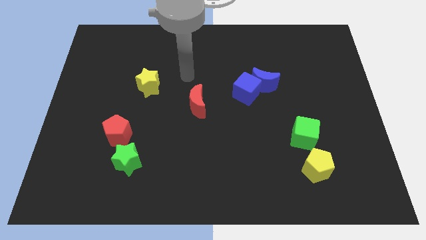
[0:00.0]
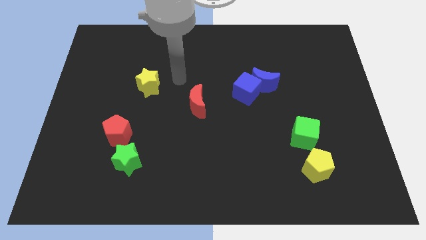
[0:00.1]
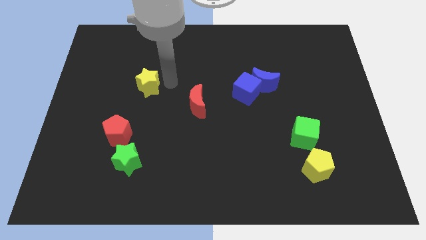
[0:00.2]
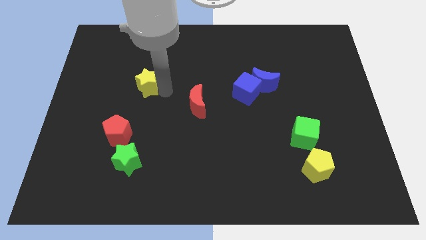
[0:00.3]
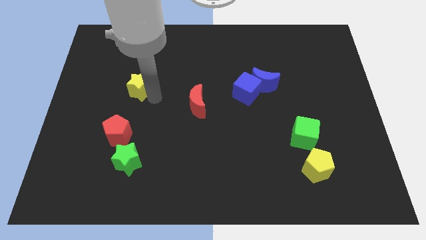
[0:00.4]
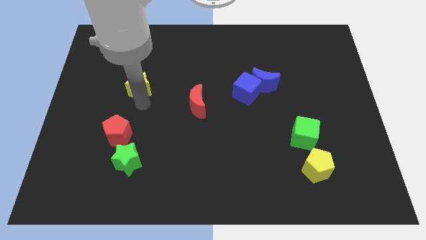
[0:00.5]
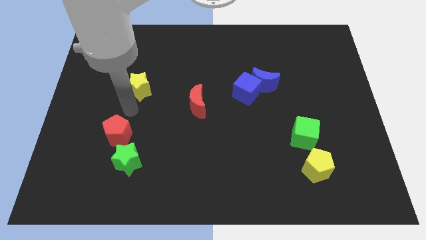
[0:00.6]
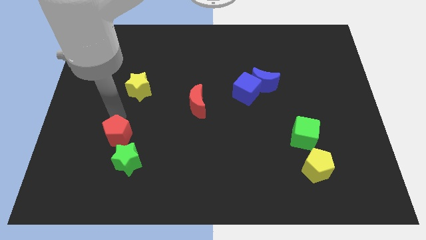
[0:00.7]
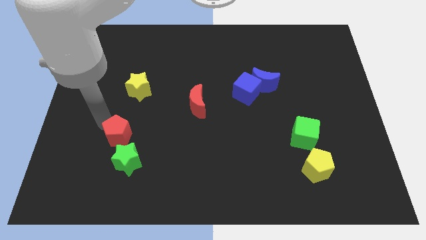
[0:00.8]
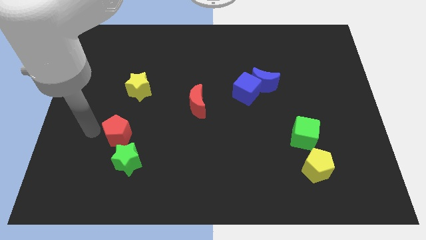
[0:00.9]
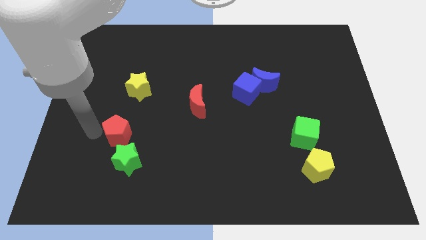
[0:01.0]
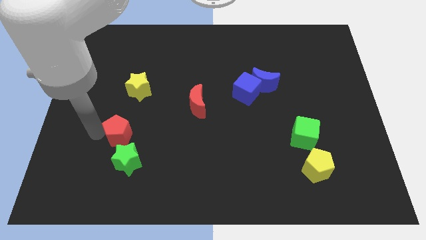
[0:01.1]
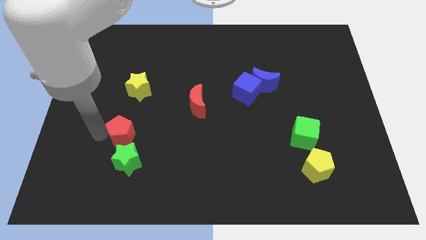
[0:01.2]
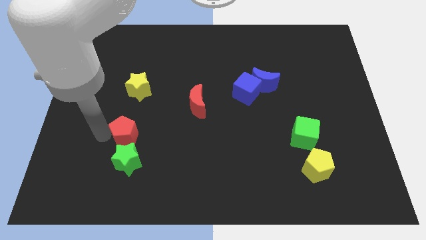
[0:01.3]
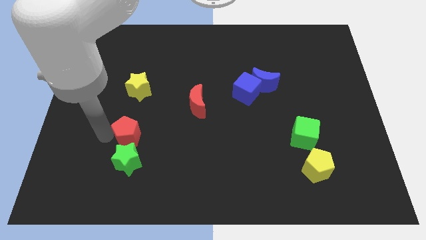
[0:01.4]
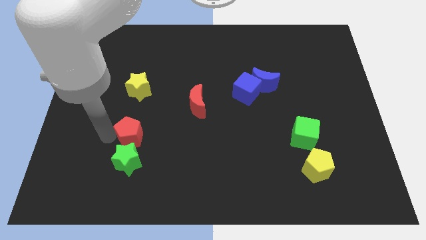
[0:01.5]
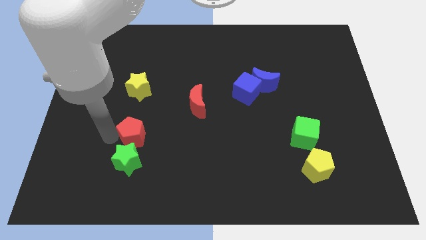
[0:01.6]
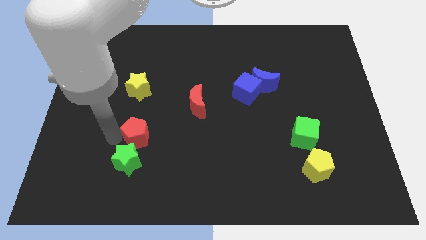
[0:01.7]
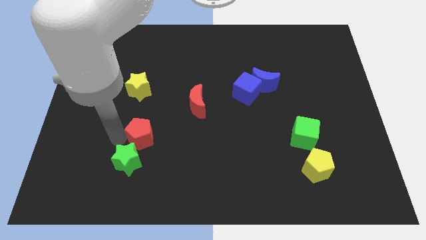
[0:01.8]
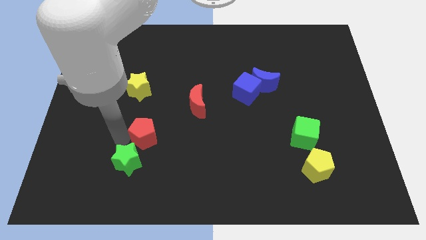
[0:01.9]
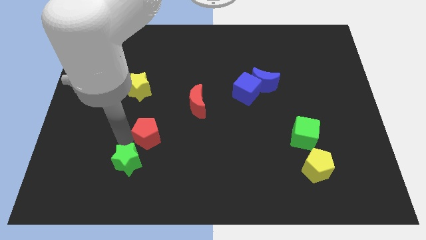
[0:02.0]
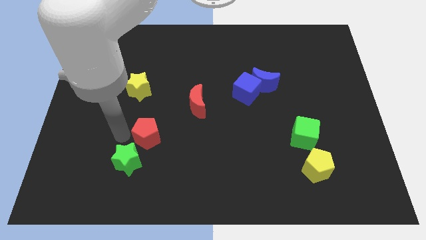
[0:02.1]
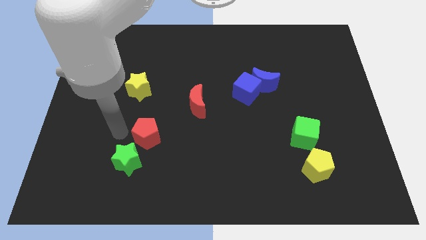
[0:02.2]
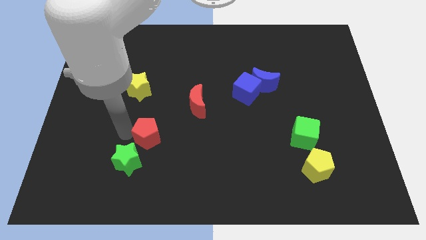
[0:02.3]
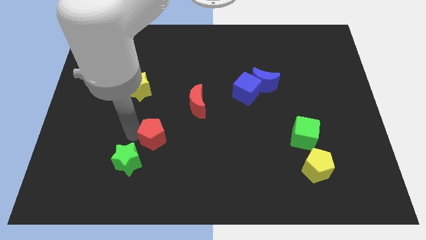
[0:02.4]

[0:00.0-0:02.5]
slide the red pentagon a little to the right

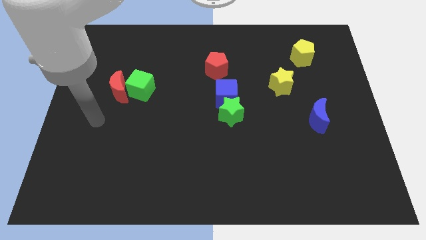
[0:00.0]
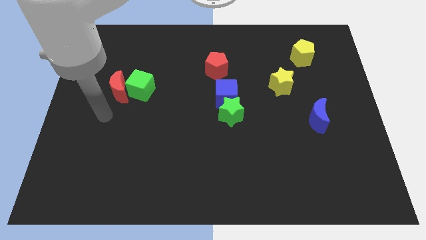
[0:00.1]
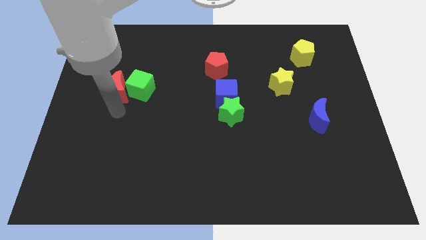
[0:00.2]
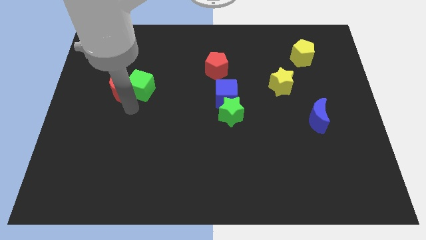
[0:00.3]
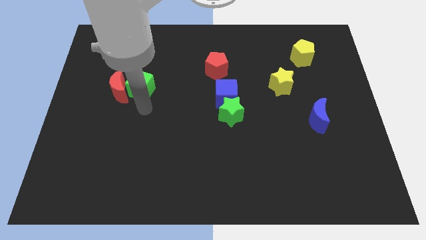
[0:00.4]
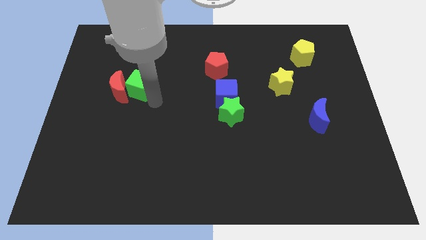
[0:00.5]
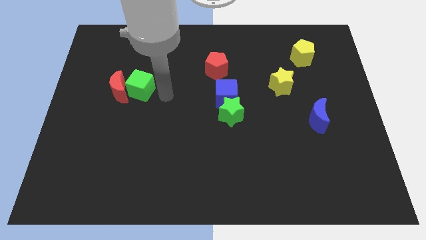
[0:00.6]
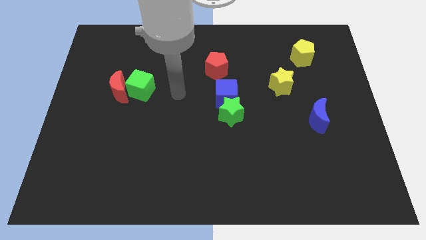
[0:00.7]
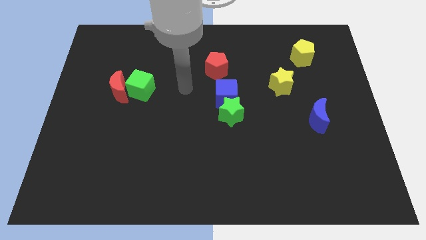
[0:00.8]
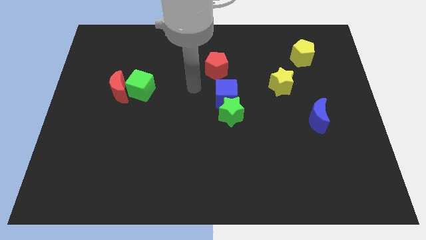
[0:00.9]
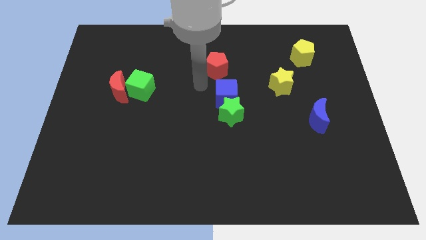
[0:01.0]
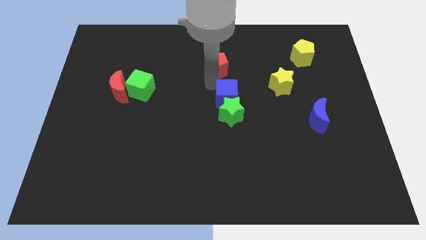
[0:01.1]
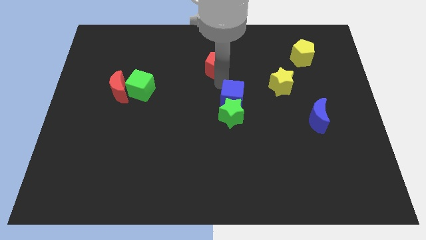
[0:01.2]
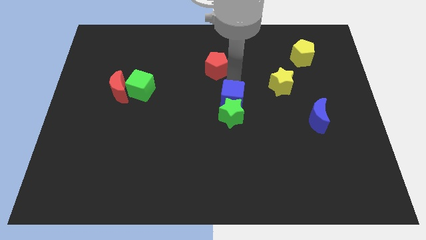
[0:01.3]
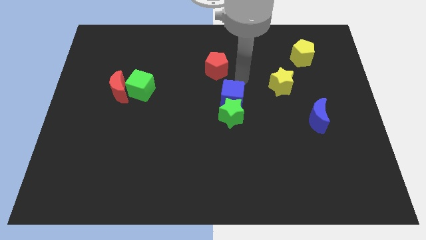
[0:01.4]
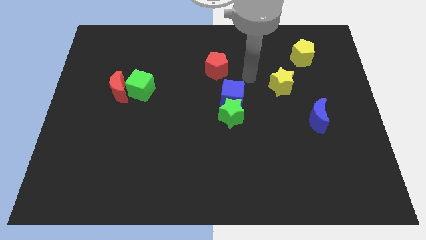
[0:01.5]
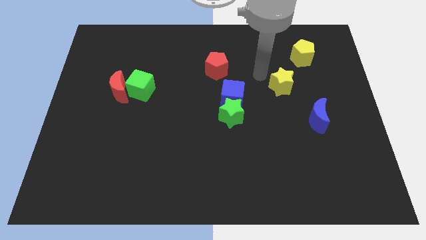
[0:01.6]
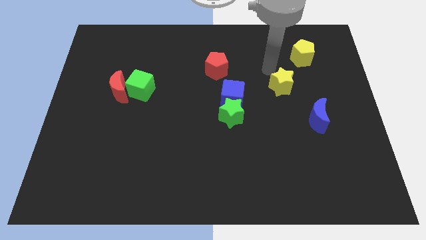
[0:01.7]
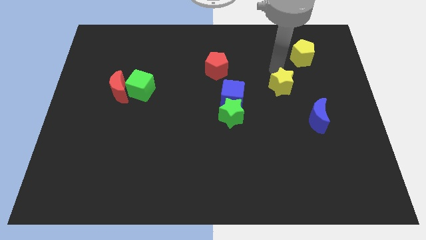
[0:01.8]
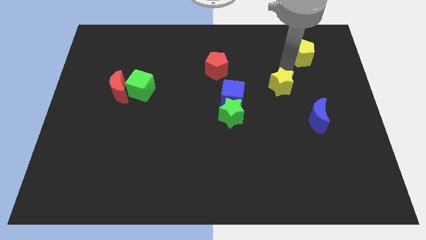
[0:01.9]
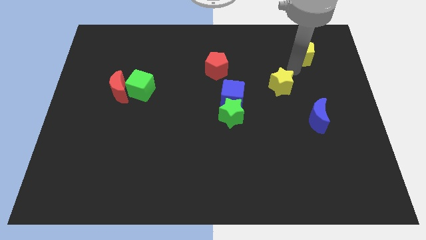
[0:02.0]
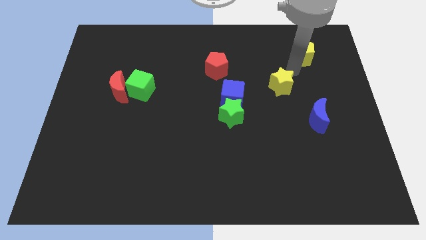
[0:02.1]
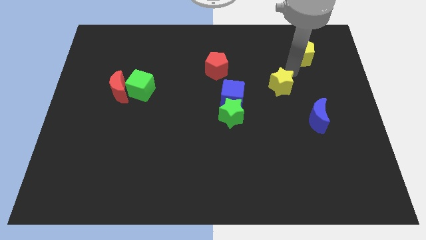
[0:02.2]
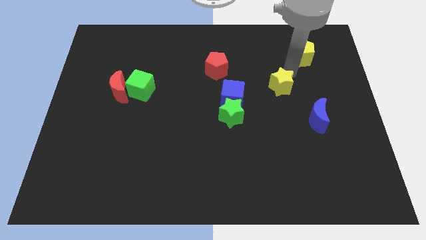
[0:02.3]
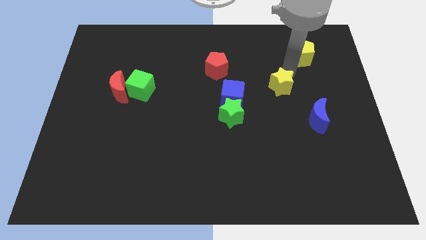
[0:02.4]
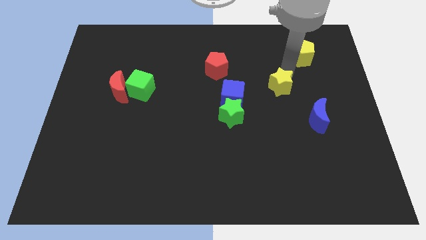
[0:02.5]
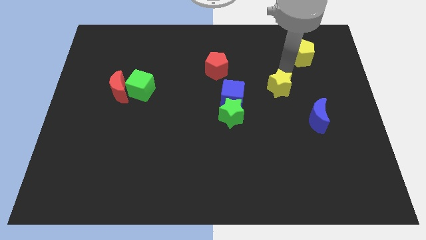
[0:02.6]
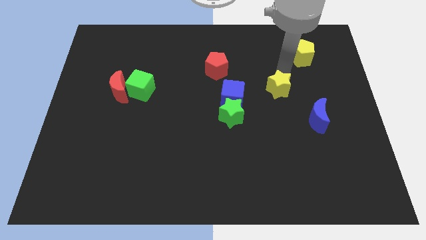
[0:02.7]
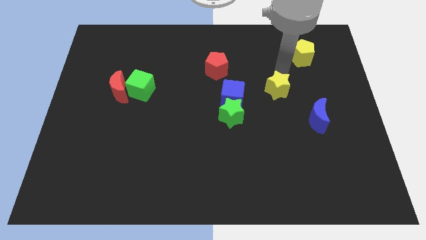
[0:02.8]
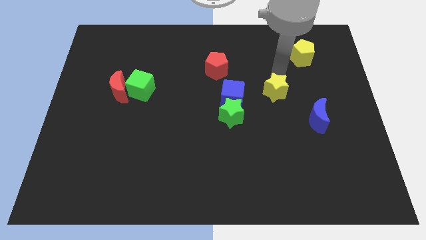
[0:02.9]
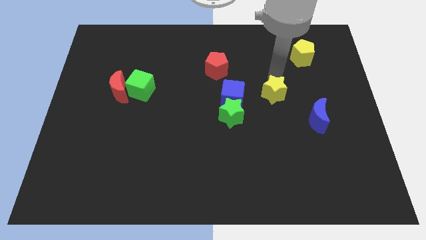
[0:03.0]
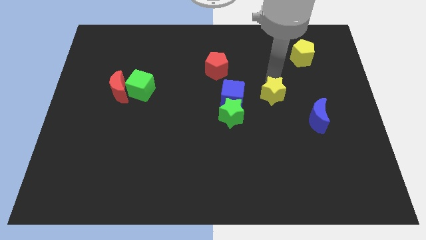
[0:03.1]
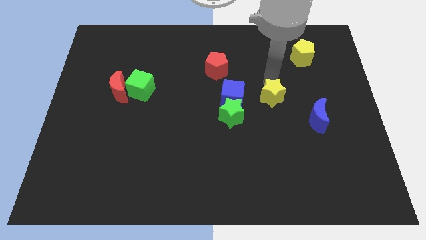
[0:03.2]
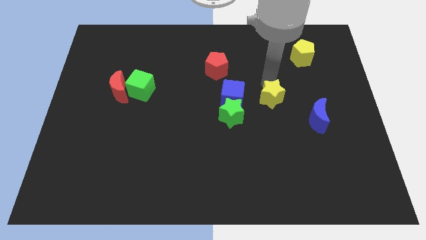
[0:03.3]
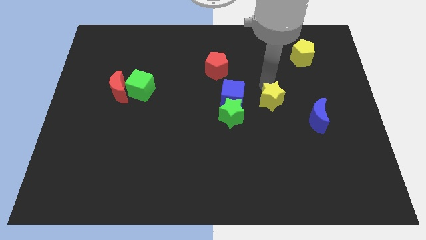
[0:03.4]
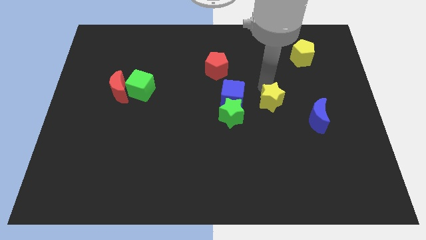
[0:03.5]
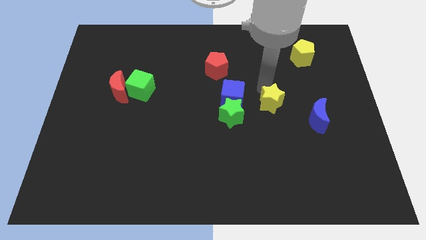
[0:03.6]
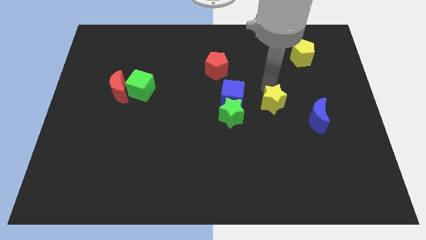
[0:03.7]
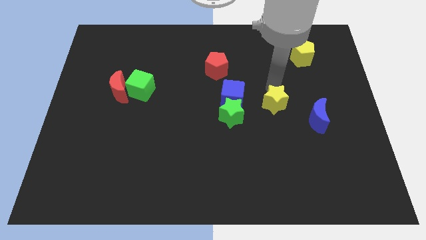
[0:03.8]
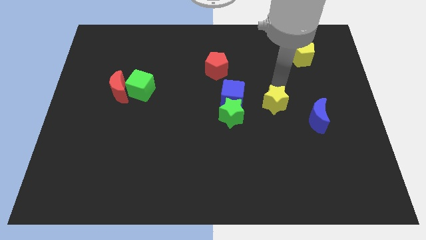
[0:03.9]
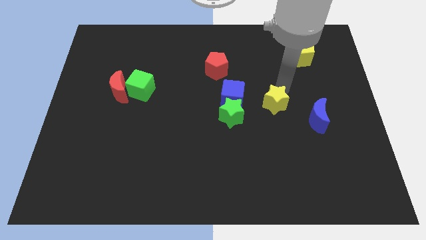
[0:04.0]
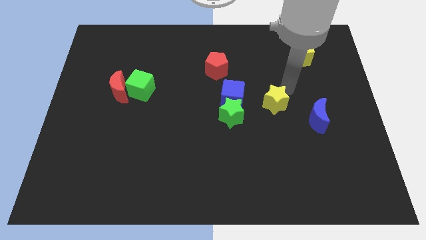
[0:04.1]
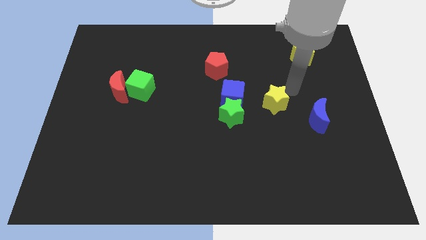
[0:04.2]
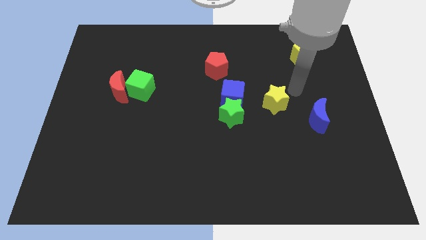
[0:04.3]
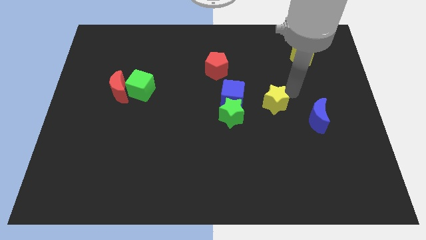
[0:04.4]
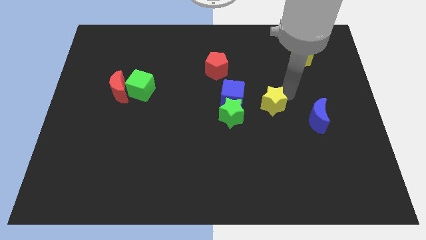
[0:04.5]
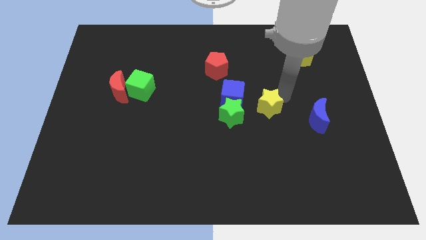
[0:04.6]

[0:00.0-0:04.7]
push the yellow star a little bit downwards and left

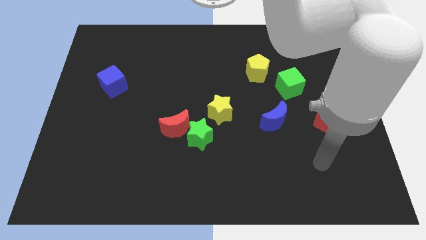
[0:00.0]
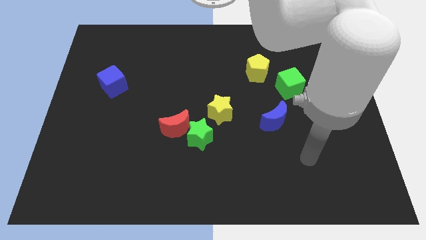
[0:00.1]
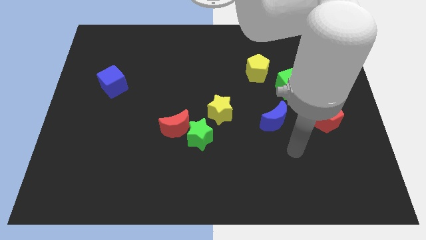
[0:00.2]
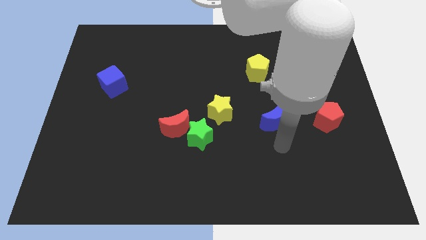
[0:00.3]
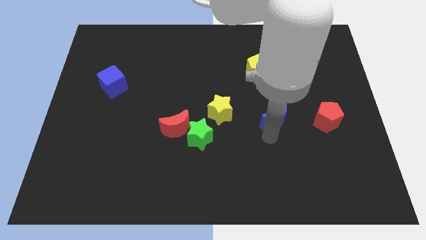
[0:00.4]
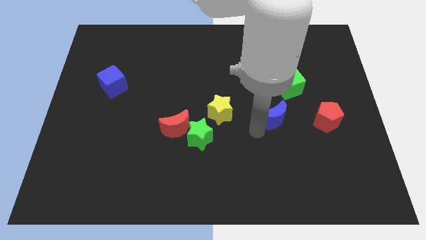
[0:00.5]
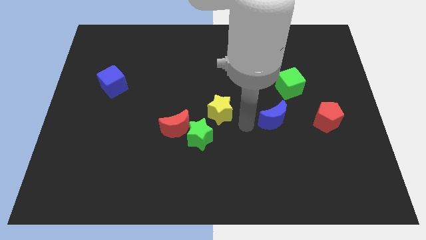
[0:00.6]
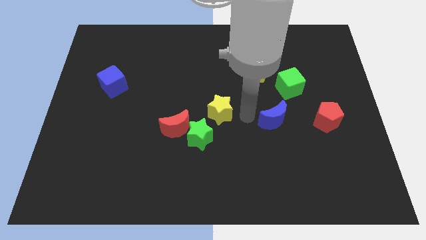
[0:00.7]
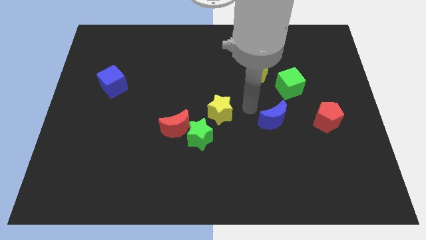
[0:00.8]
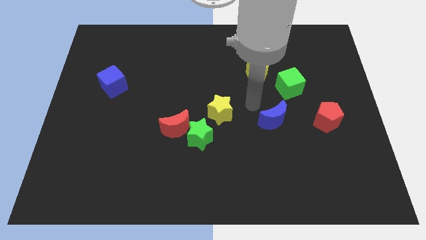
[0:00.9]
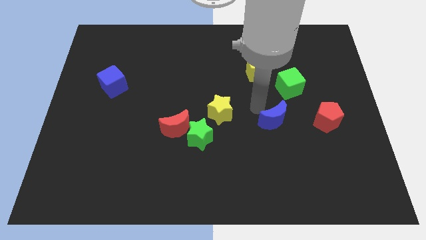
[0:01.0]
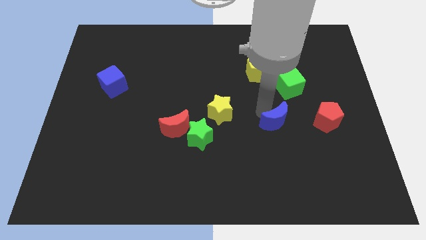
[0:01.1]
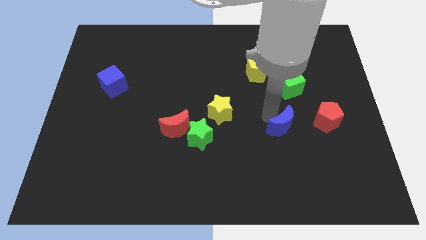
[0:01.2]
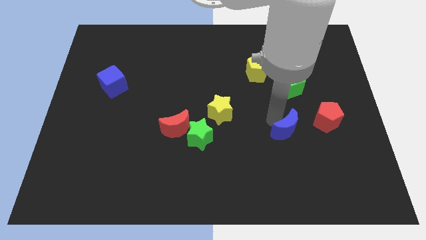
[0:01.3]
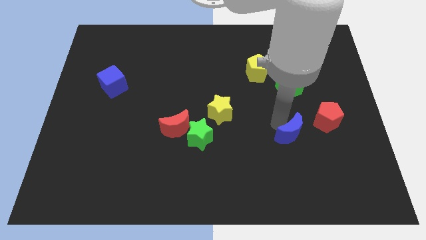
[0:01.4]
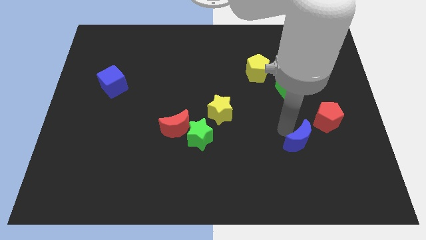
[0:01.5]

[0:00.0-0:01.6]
slightly slide the blue moon down and right diagonally
